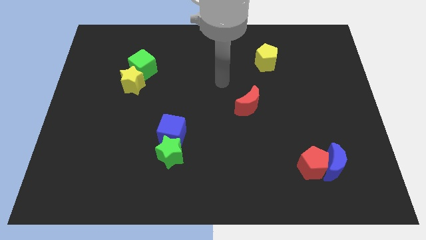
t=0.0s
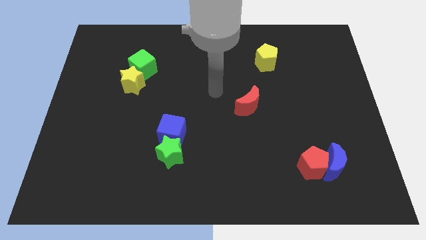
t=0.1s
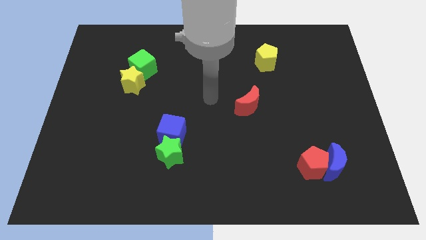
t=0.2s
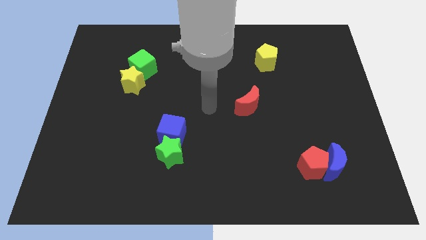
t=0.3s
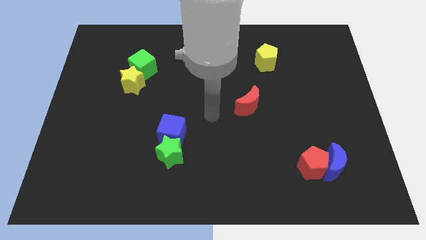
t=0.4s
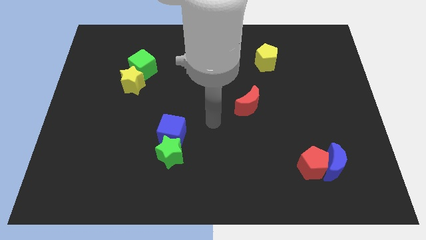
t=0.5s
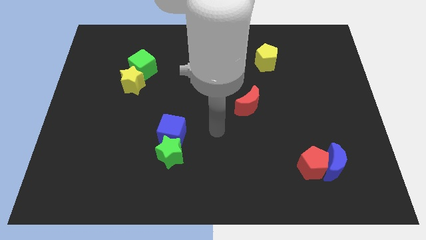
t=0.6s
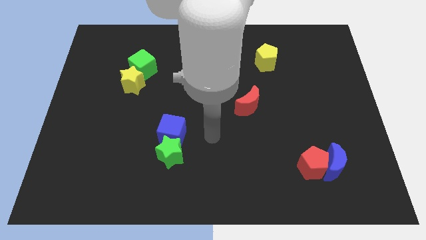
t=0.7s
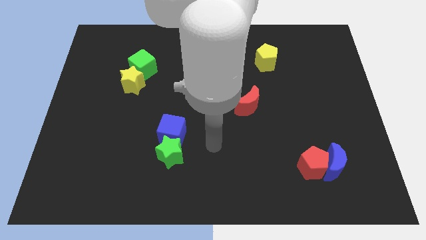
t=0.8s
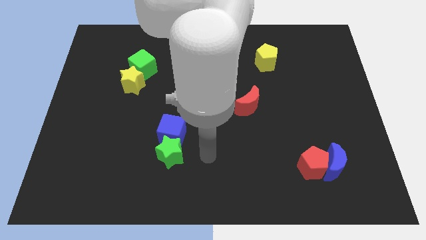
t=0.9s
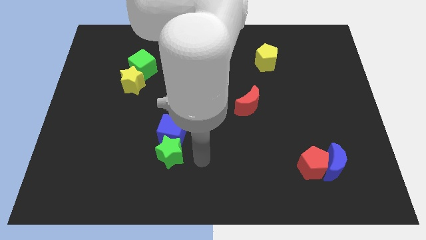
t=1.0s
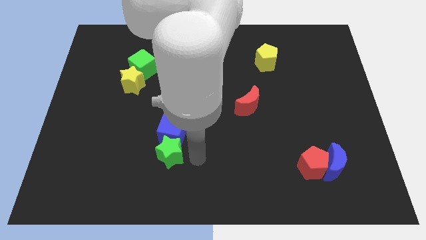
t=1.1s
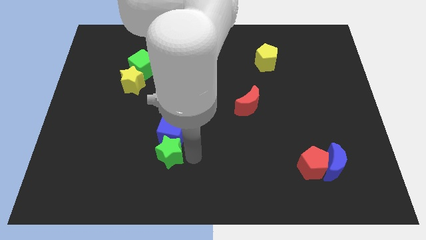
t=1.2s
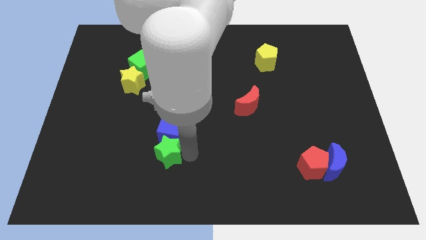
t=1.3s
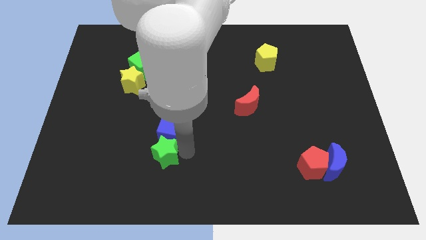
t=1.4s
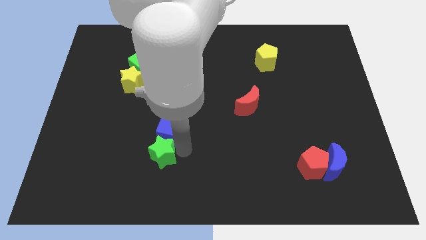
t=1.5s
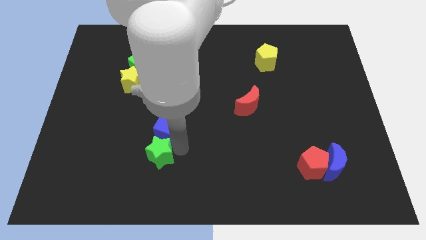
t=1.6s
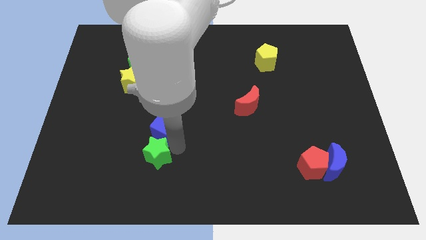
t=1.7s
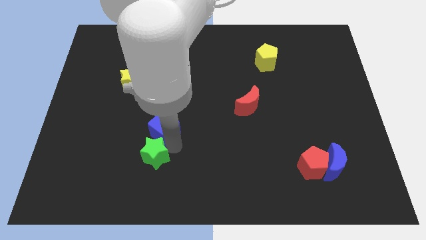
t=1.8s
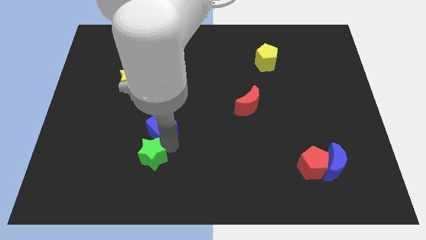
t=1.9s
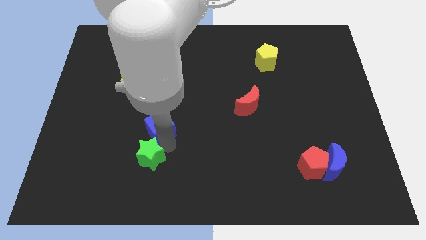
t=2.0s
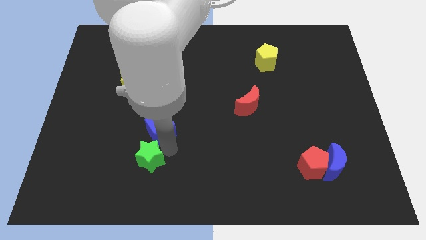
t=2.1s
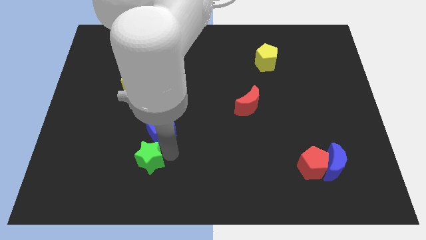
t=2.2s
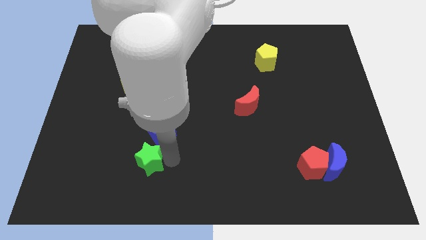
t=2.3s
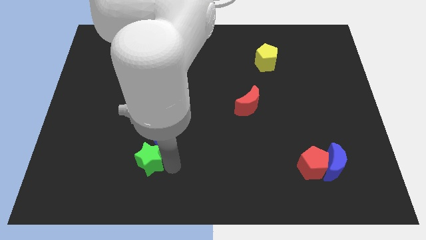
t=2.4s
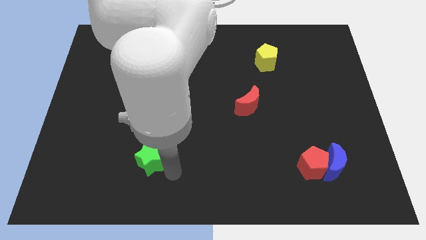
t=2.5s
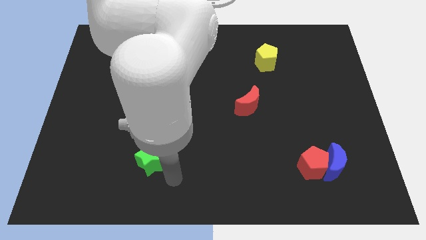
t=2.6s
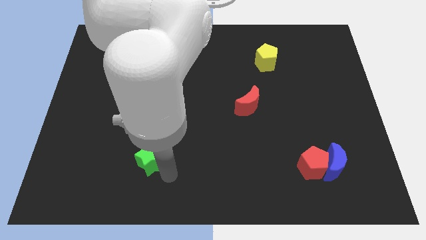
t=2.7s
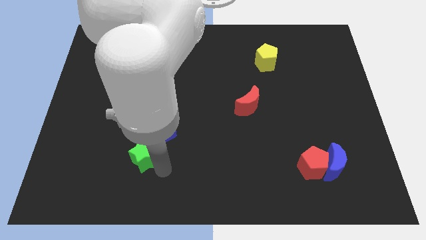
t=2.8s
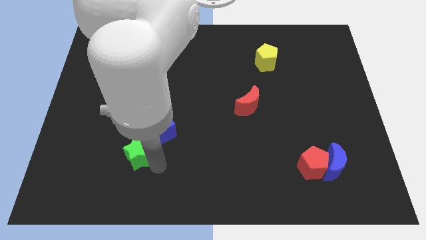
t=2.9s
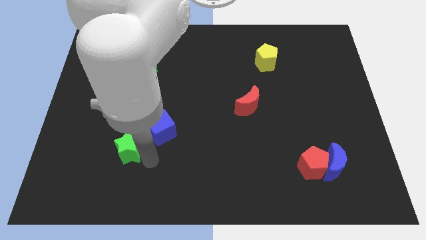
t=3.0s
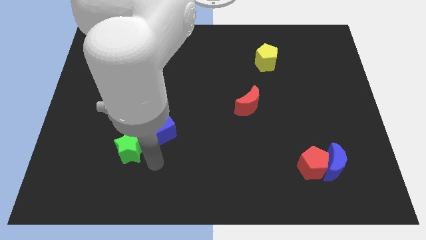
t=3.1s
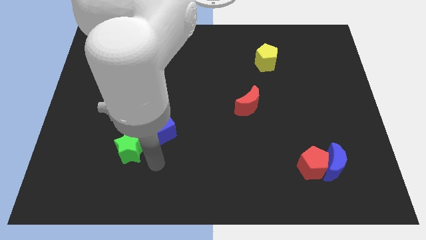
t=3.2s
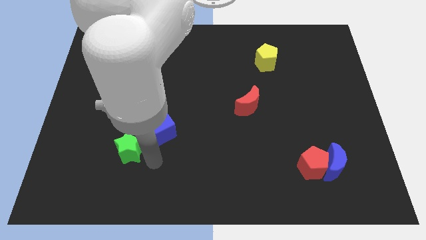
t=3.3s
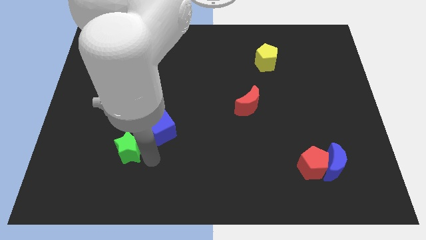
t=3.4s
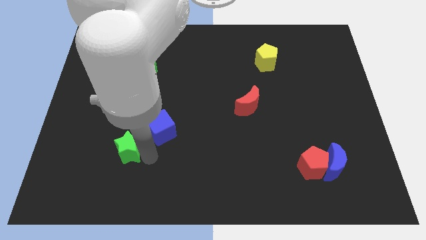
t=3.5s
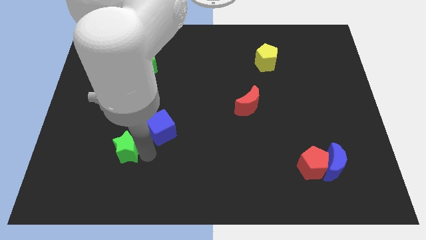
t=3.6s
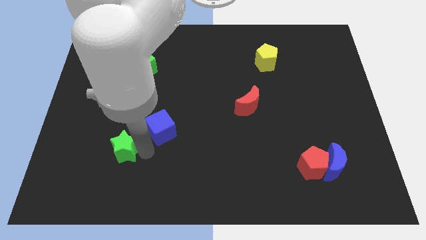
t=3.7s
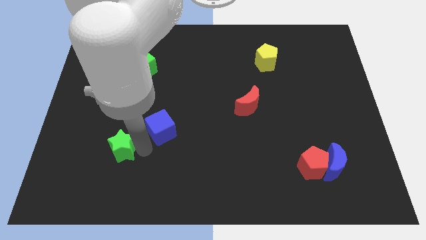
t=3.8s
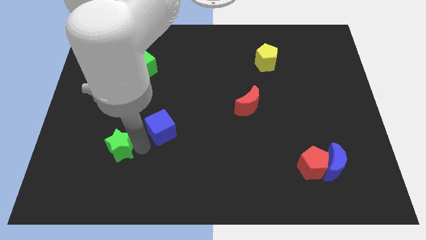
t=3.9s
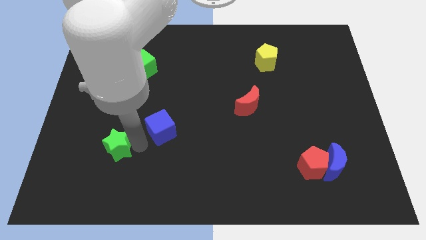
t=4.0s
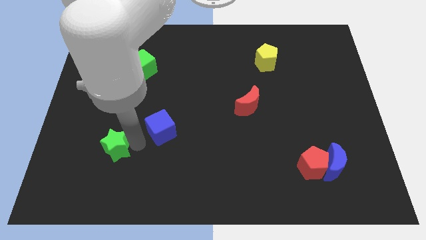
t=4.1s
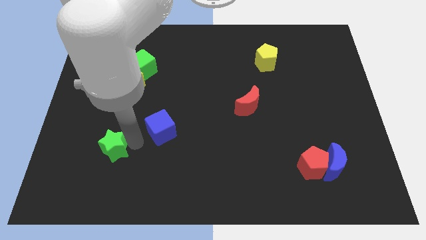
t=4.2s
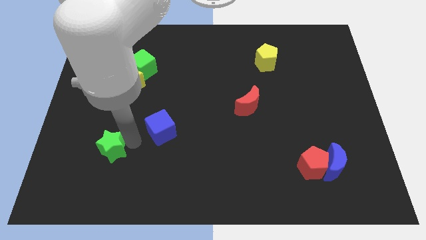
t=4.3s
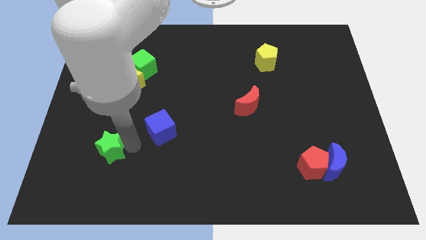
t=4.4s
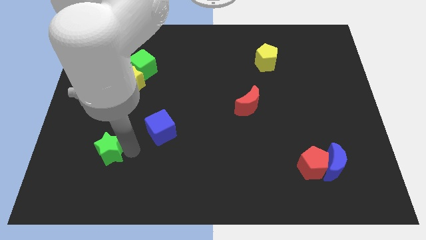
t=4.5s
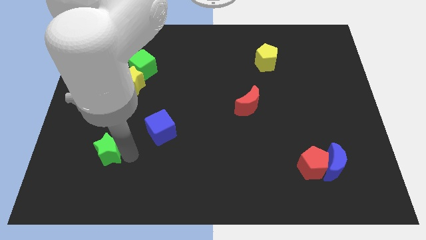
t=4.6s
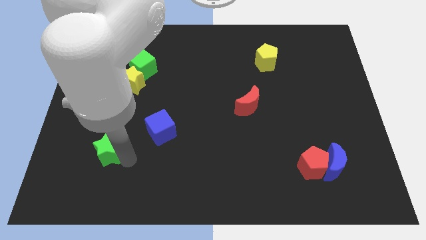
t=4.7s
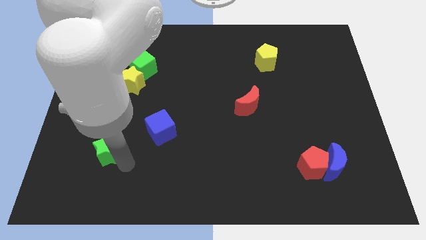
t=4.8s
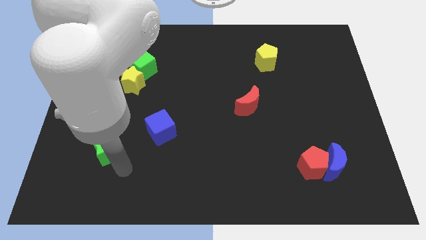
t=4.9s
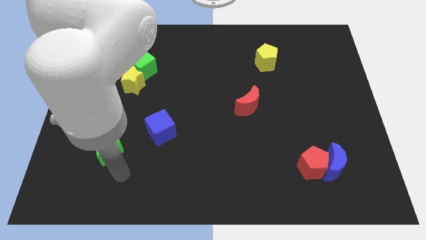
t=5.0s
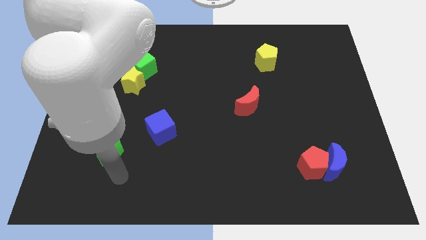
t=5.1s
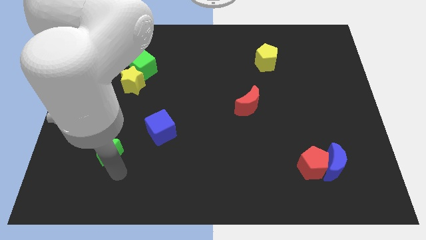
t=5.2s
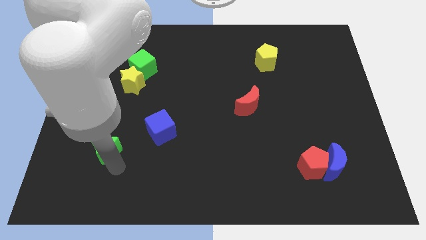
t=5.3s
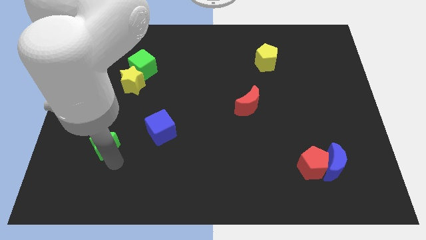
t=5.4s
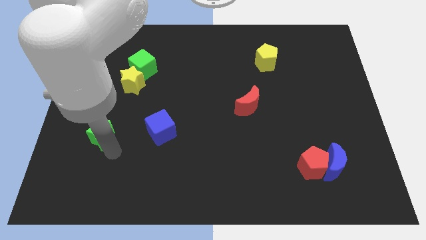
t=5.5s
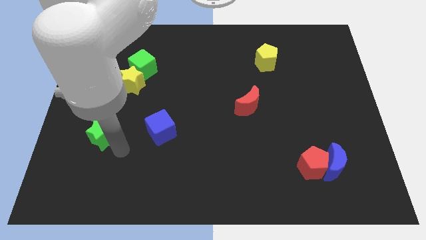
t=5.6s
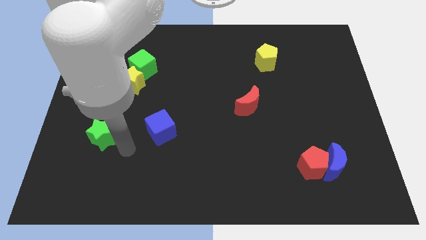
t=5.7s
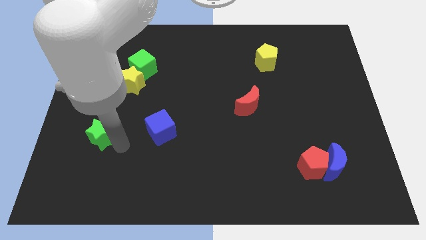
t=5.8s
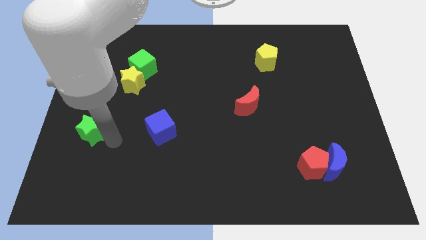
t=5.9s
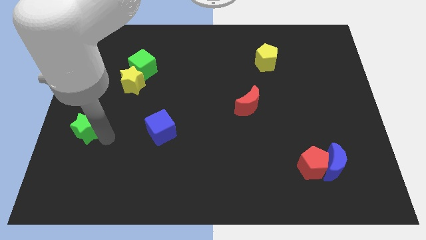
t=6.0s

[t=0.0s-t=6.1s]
move the green star to the center left

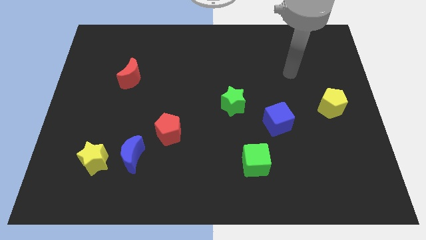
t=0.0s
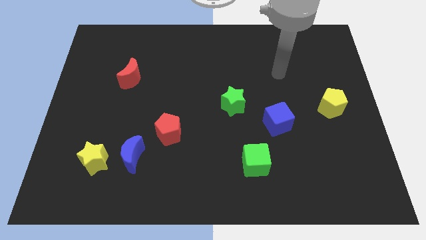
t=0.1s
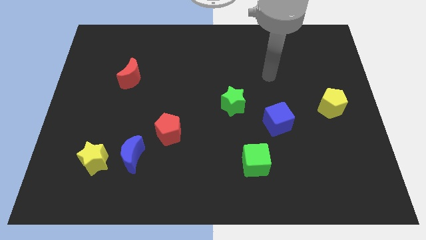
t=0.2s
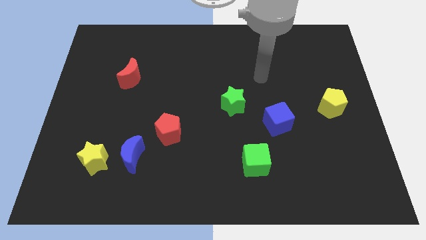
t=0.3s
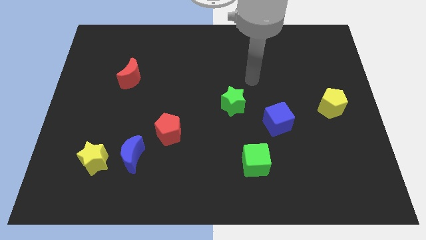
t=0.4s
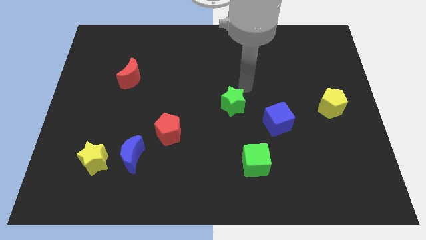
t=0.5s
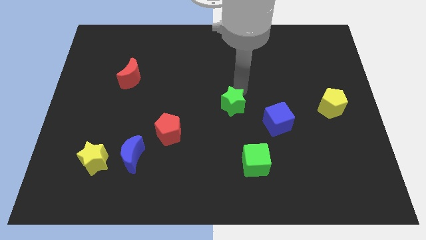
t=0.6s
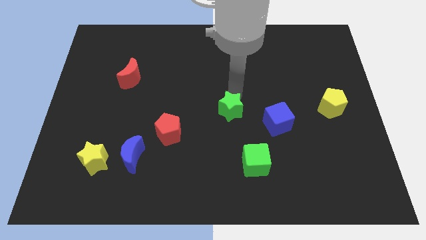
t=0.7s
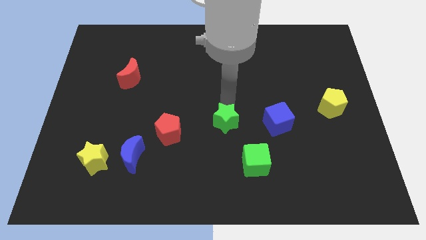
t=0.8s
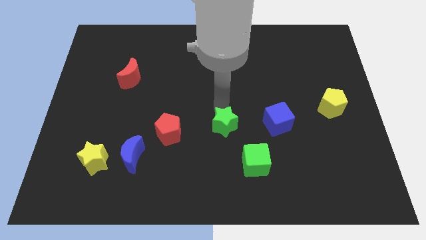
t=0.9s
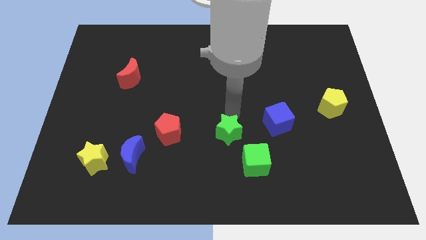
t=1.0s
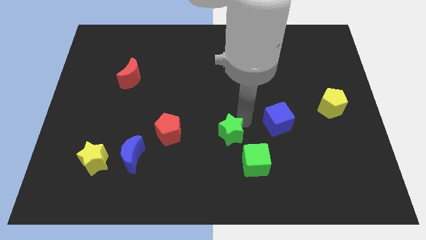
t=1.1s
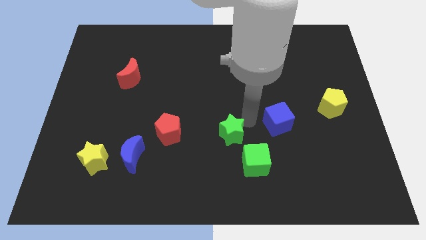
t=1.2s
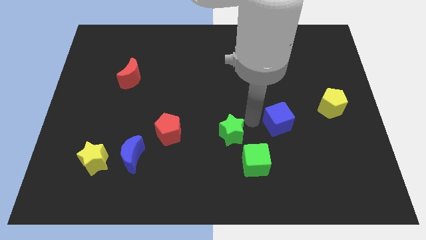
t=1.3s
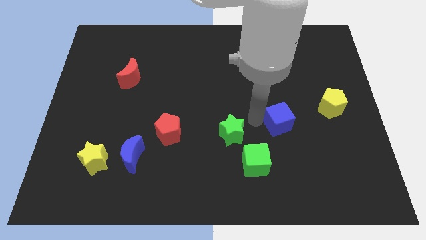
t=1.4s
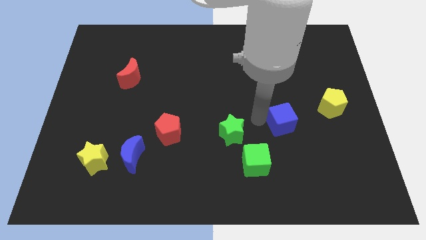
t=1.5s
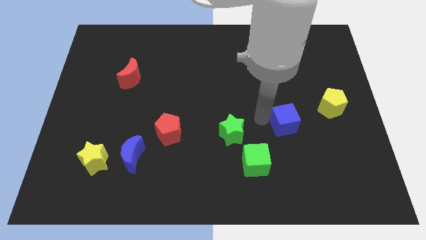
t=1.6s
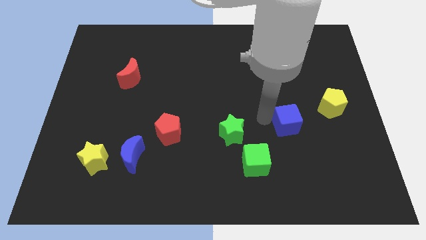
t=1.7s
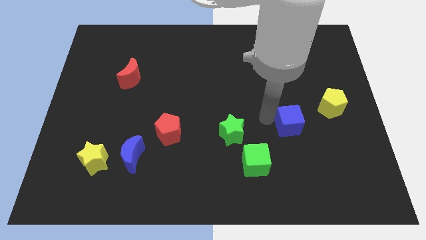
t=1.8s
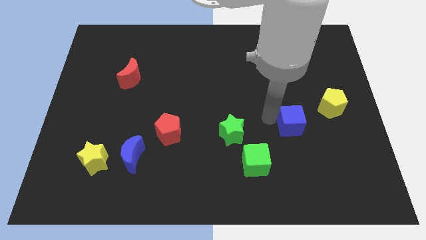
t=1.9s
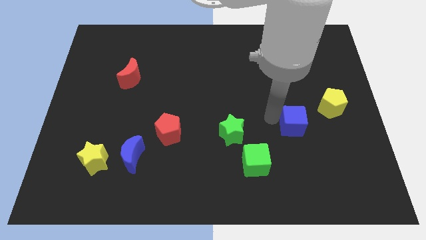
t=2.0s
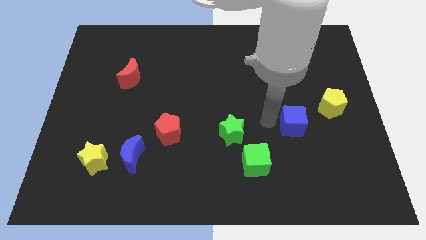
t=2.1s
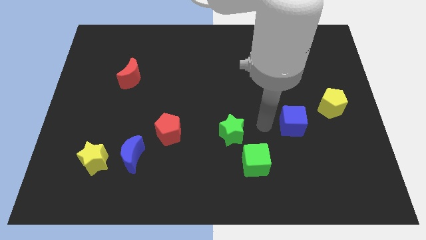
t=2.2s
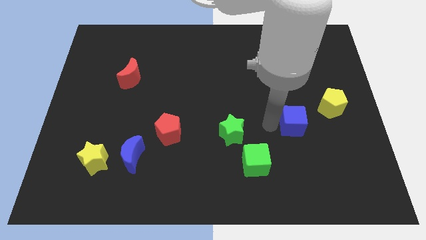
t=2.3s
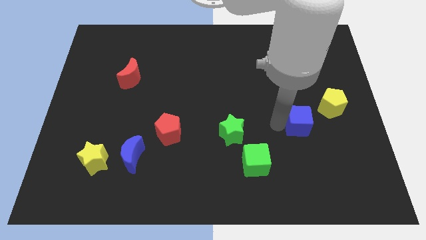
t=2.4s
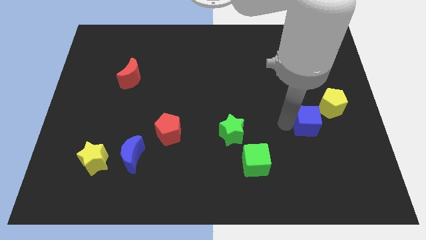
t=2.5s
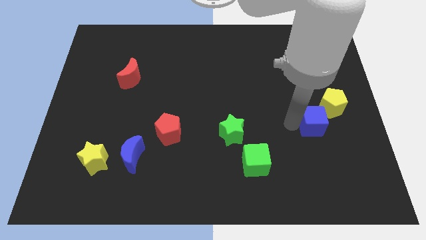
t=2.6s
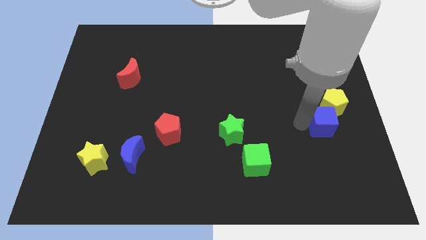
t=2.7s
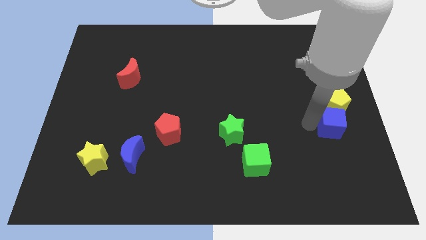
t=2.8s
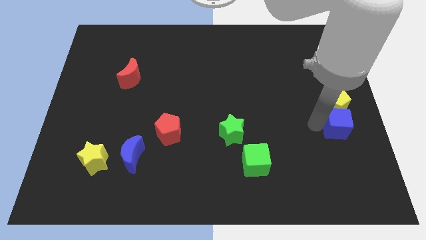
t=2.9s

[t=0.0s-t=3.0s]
move the blue cube to the right side
